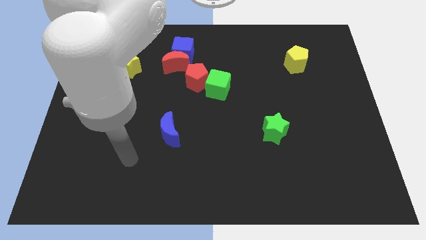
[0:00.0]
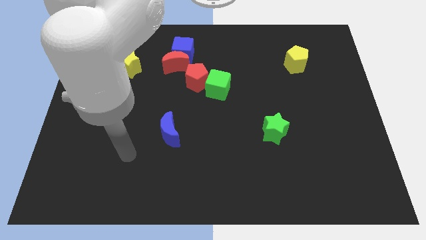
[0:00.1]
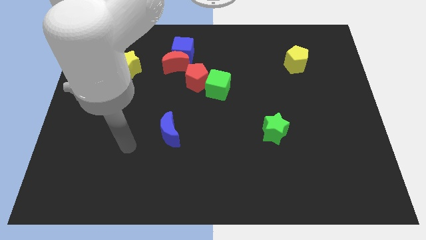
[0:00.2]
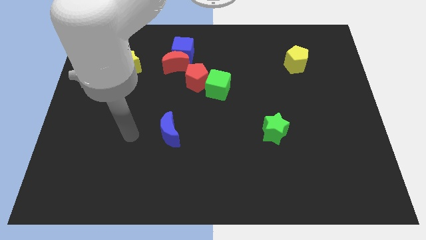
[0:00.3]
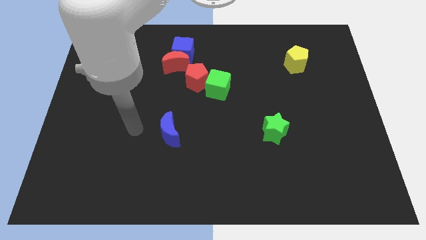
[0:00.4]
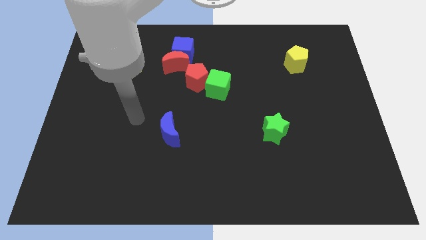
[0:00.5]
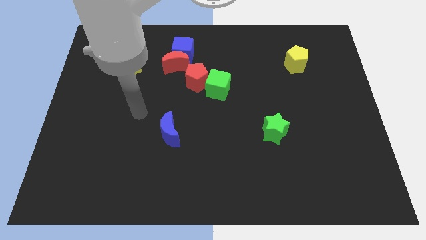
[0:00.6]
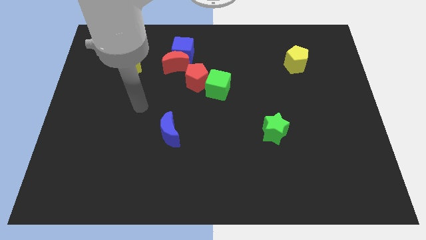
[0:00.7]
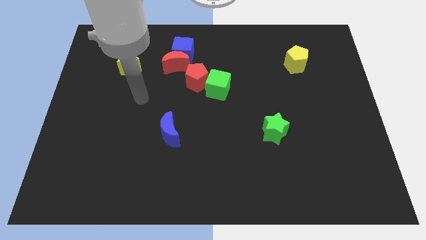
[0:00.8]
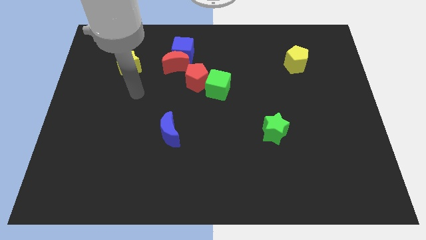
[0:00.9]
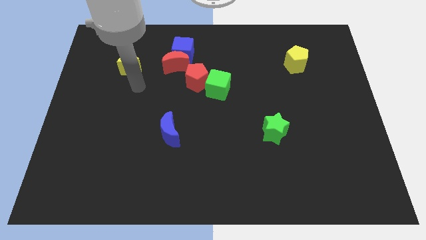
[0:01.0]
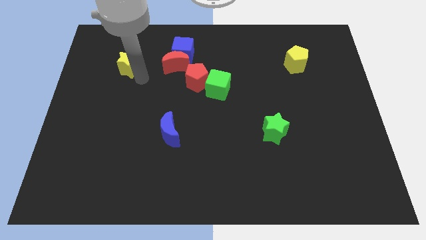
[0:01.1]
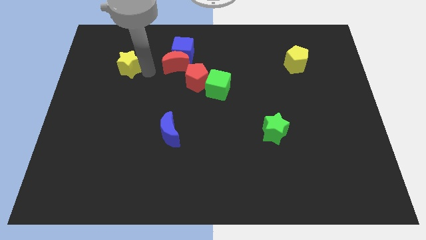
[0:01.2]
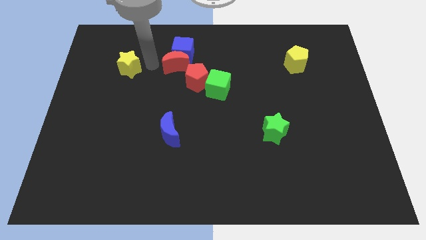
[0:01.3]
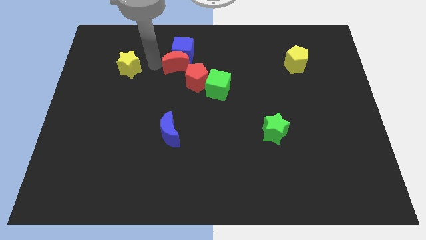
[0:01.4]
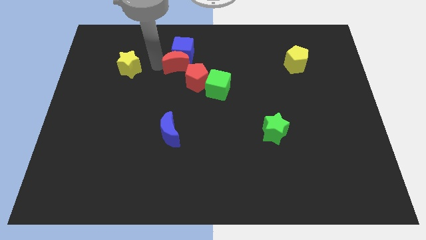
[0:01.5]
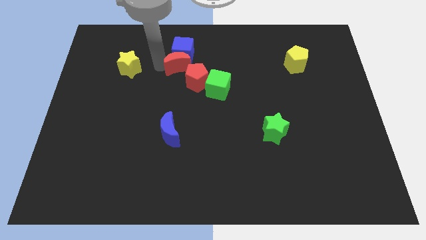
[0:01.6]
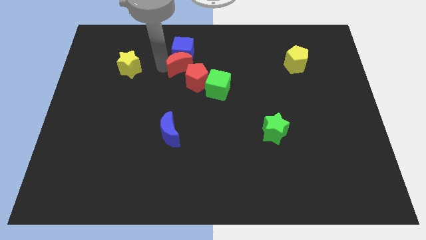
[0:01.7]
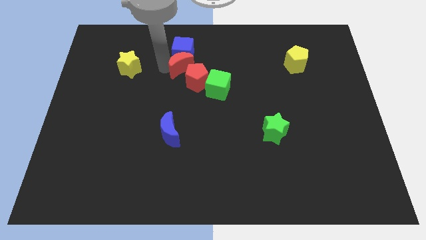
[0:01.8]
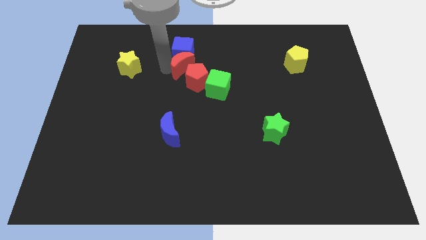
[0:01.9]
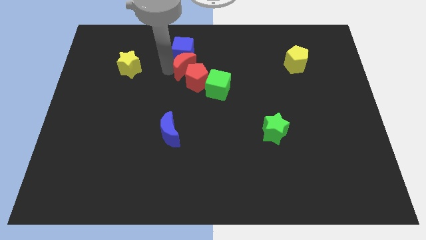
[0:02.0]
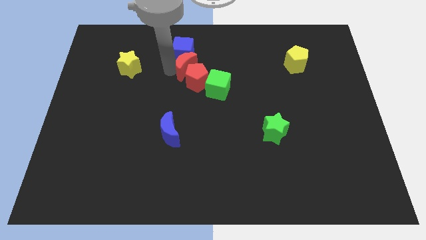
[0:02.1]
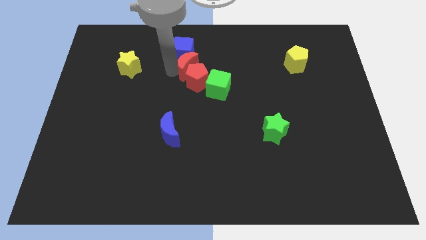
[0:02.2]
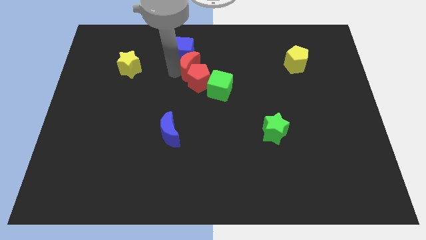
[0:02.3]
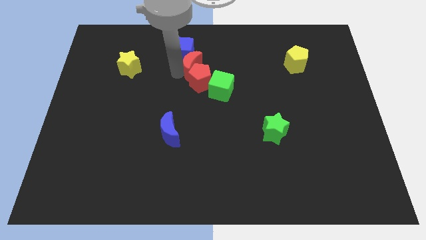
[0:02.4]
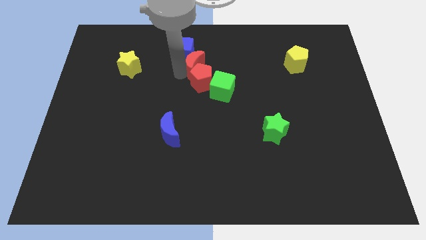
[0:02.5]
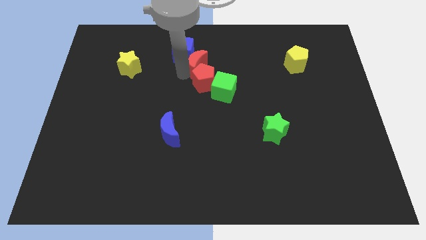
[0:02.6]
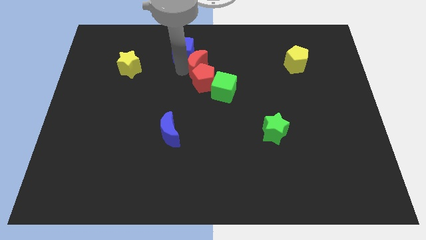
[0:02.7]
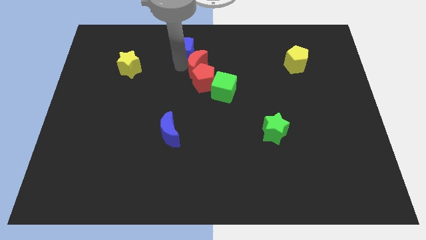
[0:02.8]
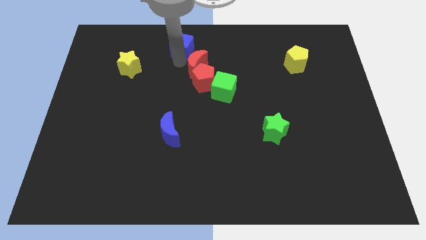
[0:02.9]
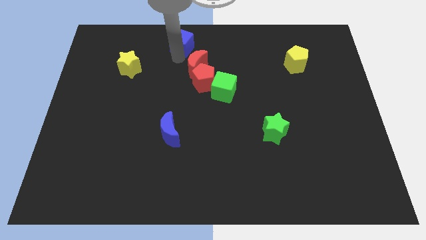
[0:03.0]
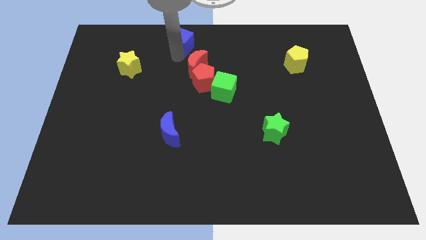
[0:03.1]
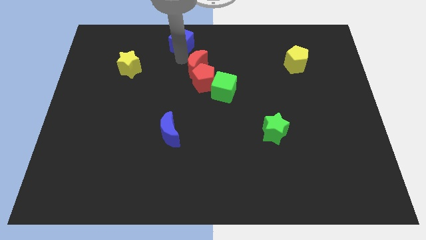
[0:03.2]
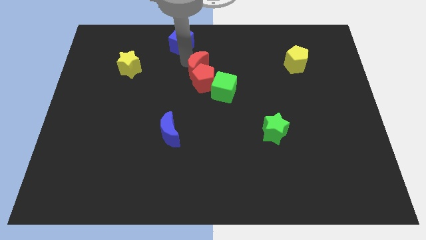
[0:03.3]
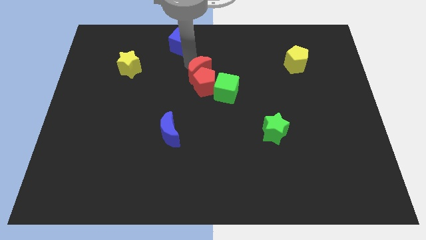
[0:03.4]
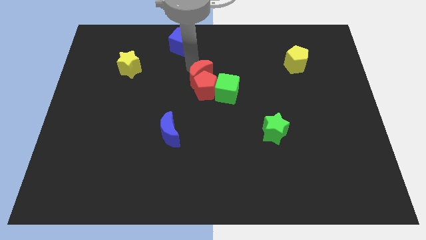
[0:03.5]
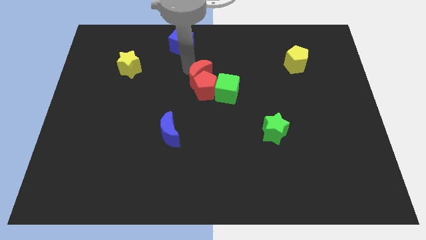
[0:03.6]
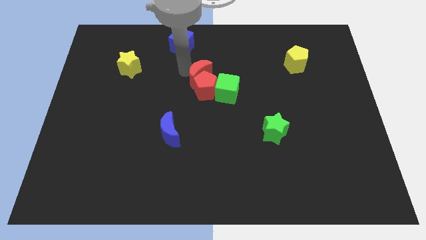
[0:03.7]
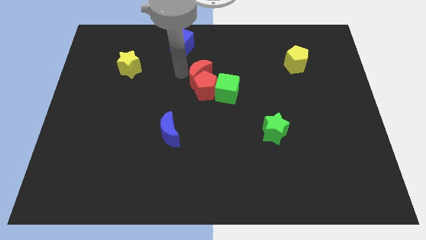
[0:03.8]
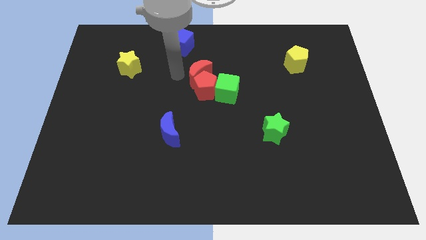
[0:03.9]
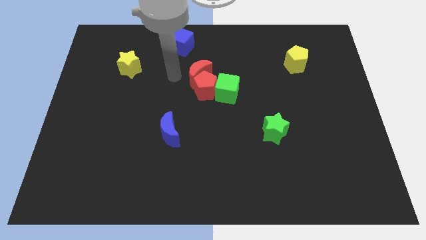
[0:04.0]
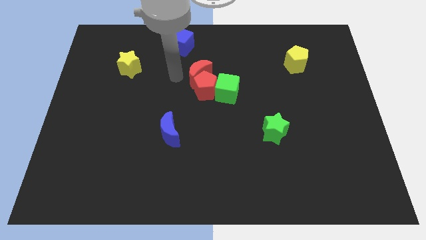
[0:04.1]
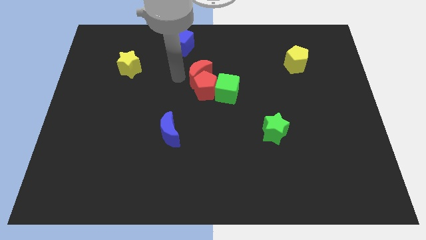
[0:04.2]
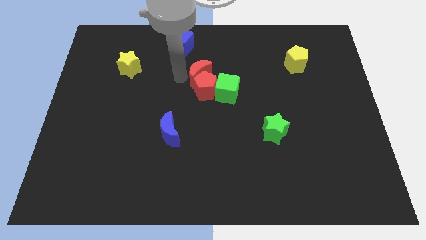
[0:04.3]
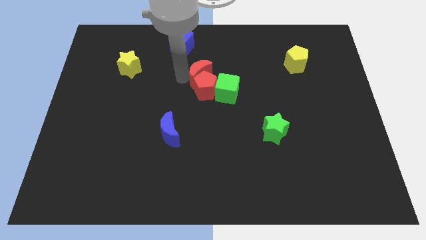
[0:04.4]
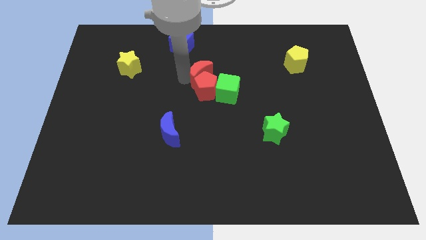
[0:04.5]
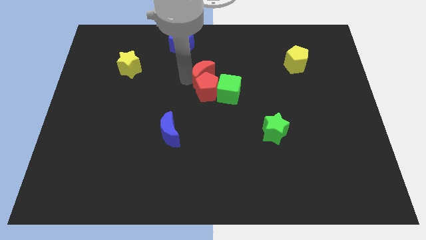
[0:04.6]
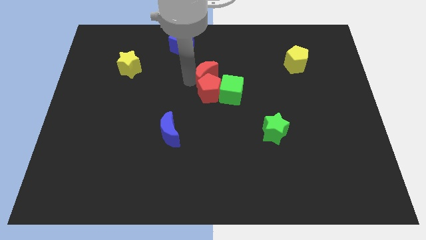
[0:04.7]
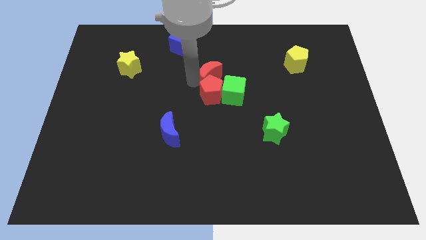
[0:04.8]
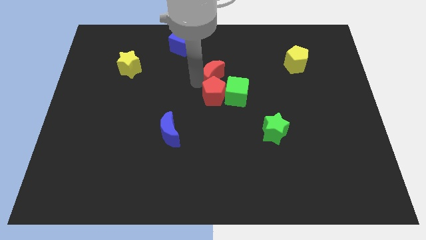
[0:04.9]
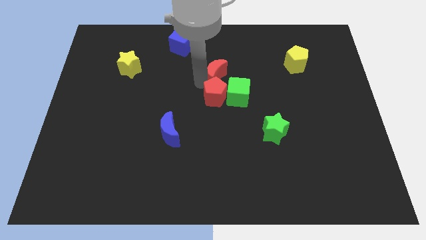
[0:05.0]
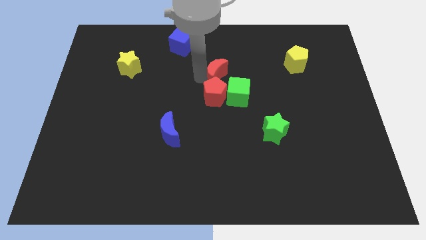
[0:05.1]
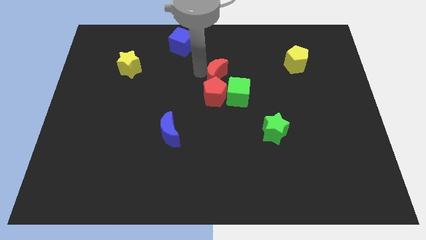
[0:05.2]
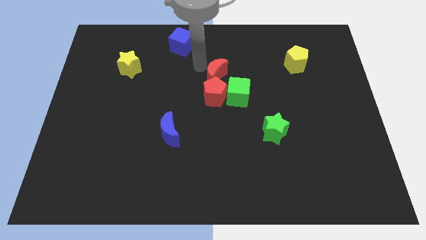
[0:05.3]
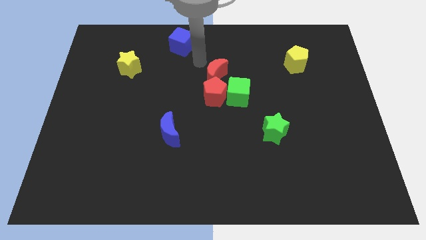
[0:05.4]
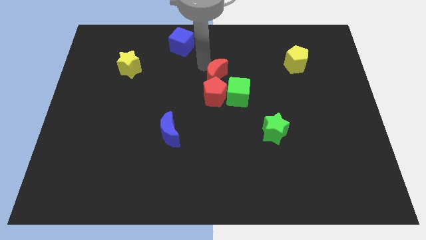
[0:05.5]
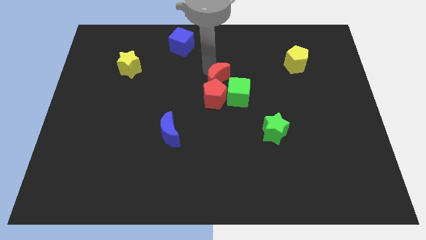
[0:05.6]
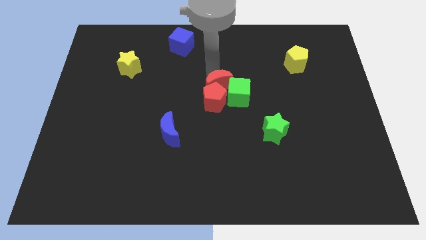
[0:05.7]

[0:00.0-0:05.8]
put the red moon next to the green cube

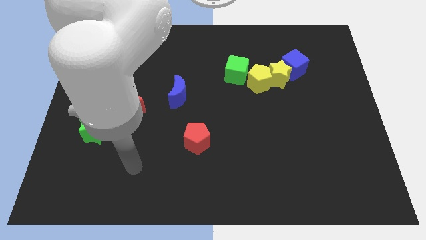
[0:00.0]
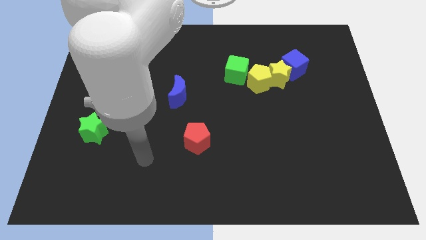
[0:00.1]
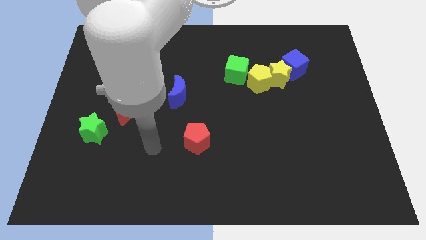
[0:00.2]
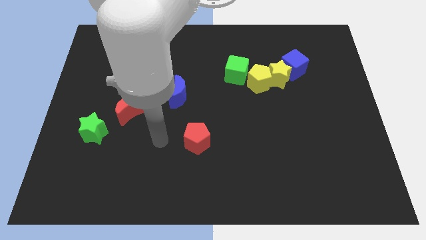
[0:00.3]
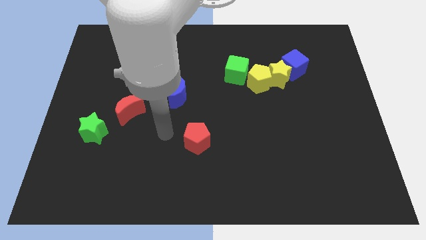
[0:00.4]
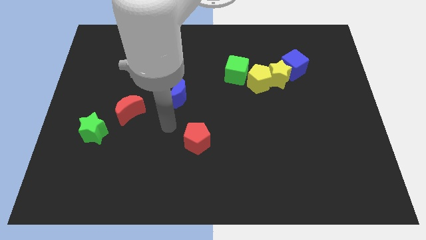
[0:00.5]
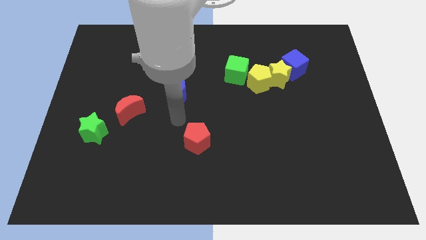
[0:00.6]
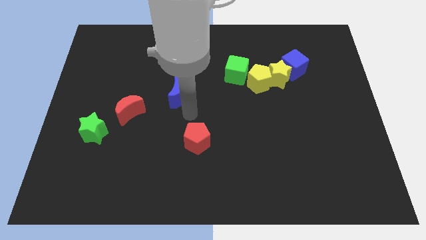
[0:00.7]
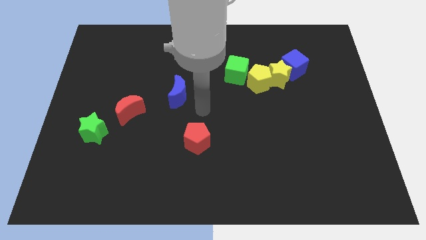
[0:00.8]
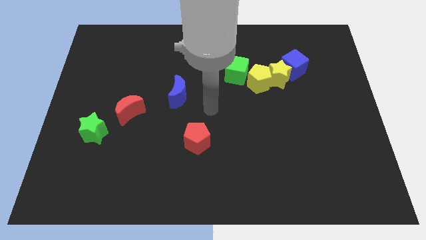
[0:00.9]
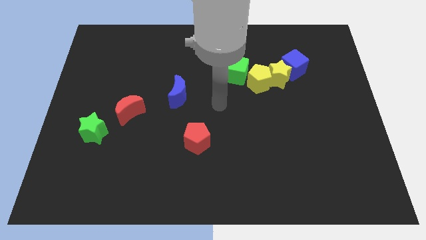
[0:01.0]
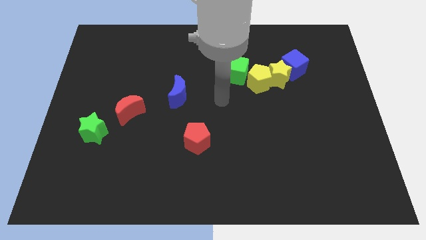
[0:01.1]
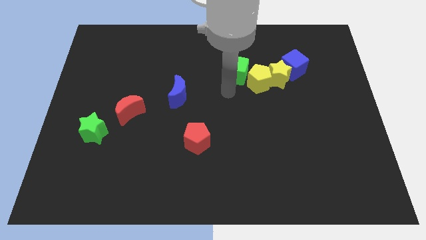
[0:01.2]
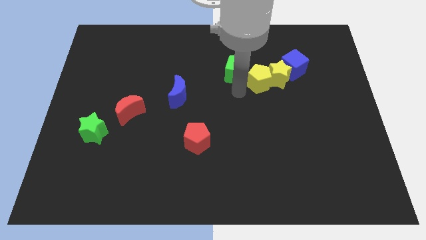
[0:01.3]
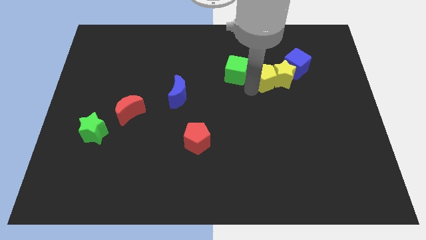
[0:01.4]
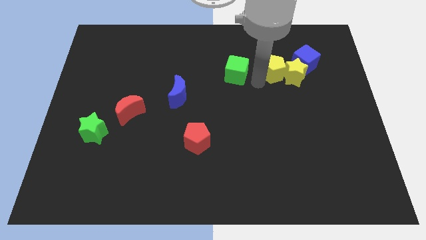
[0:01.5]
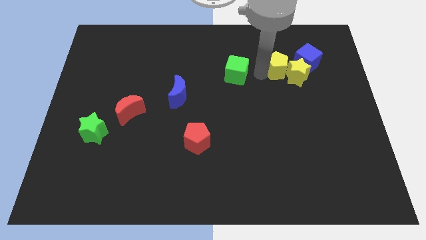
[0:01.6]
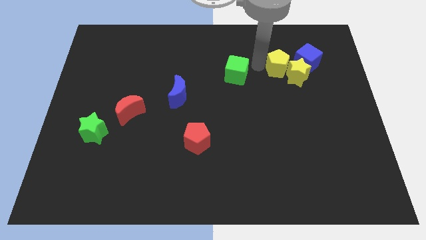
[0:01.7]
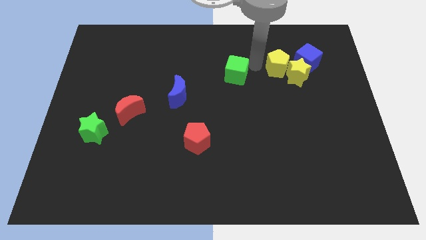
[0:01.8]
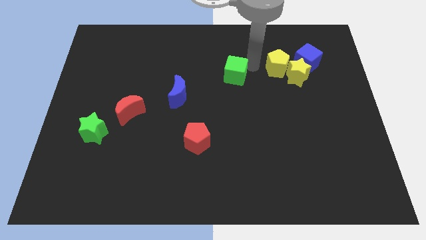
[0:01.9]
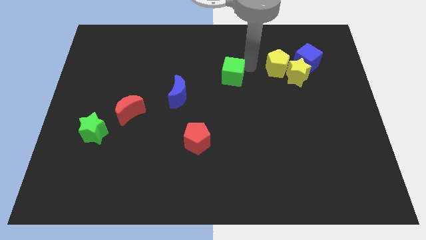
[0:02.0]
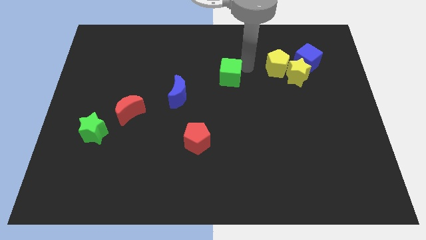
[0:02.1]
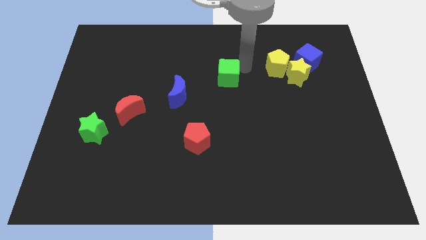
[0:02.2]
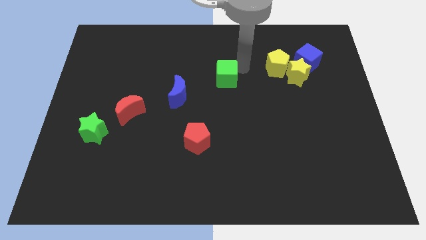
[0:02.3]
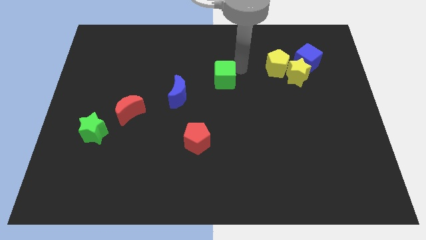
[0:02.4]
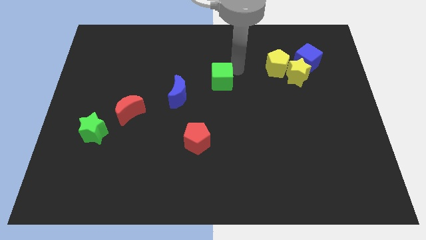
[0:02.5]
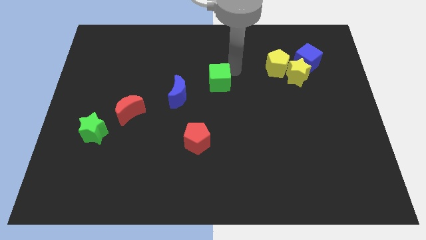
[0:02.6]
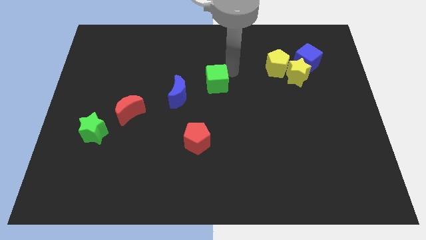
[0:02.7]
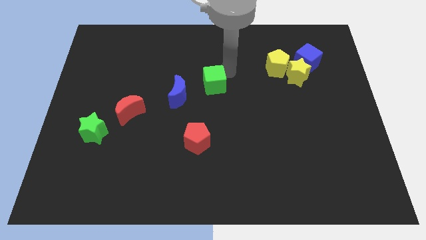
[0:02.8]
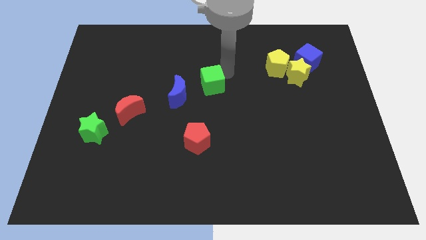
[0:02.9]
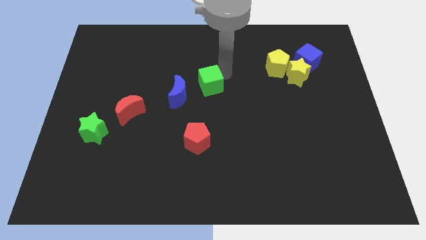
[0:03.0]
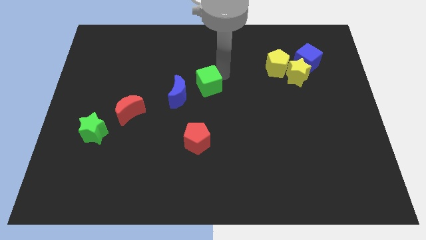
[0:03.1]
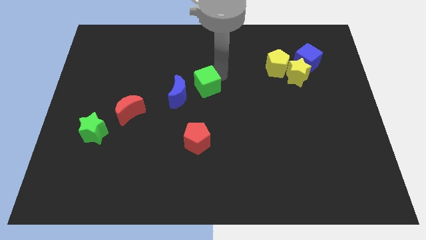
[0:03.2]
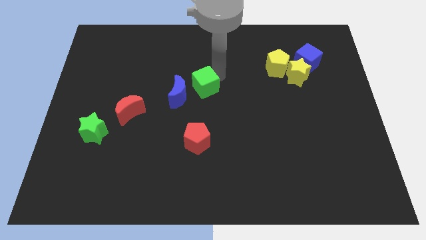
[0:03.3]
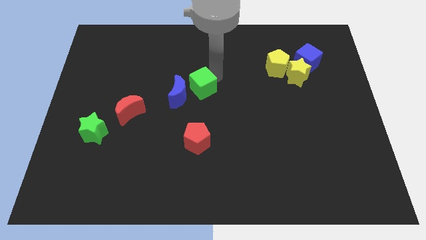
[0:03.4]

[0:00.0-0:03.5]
slide the green cube towards the blue moon
